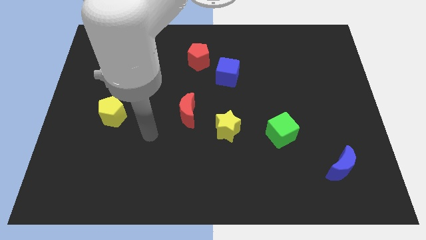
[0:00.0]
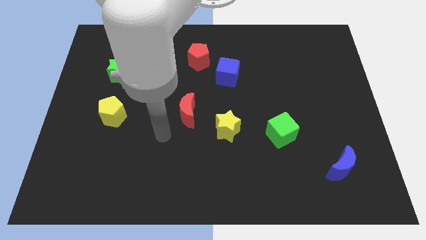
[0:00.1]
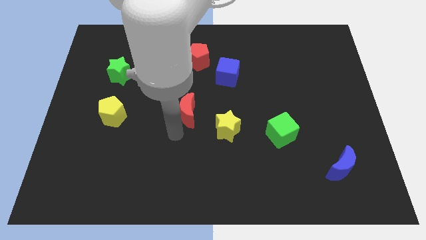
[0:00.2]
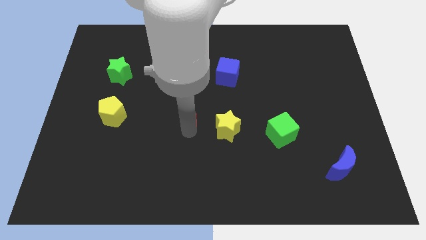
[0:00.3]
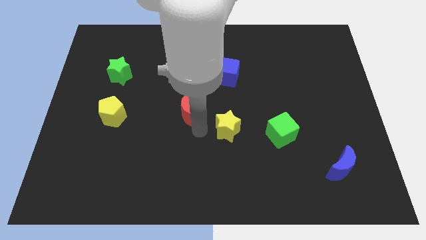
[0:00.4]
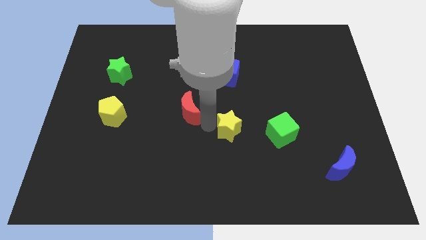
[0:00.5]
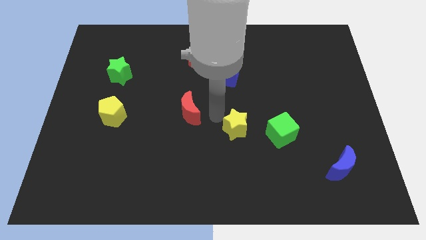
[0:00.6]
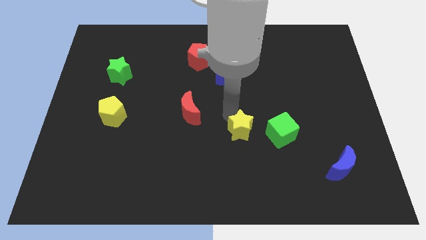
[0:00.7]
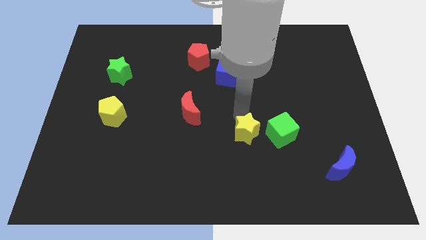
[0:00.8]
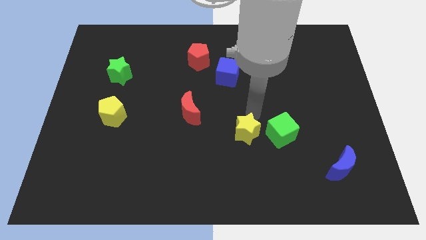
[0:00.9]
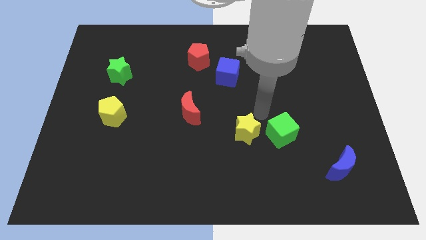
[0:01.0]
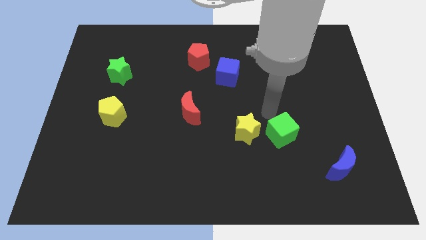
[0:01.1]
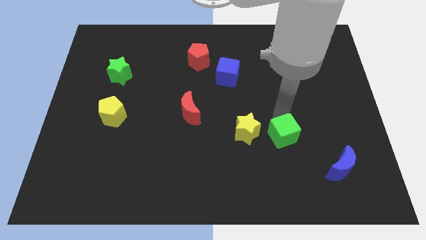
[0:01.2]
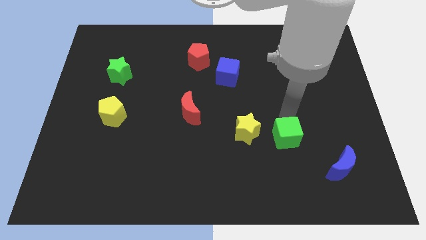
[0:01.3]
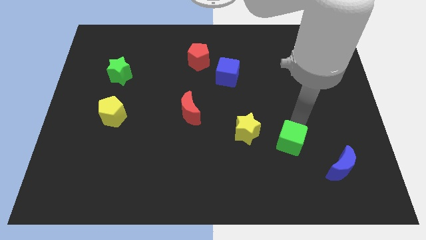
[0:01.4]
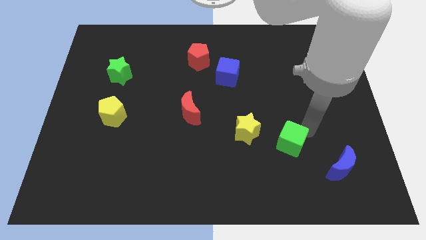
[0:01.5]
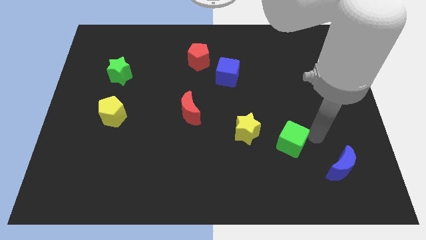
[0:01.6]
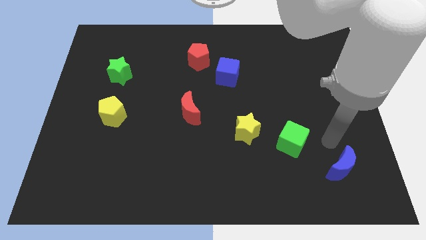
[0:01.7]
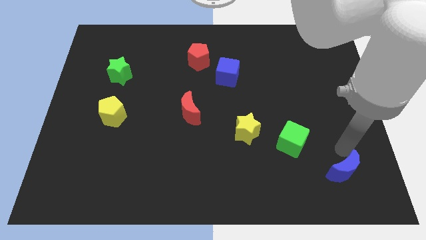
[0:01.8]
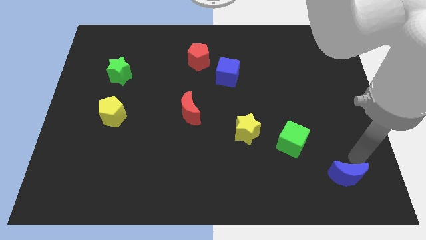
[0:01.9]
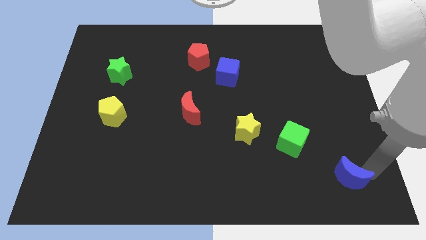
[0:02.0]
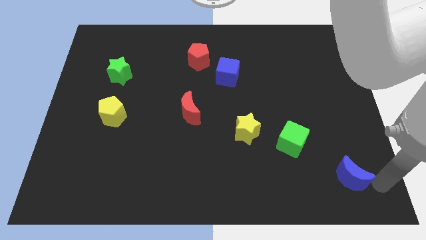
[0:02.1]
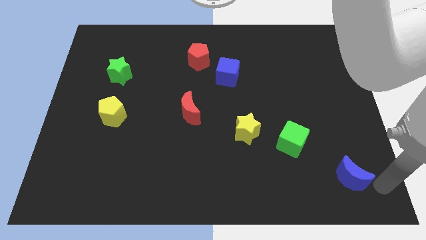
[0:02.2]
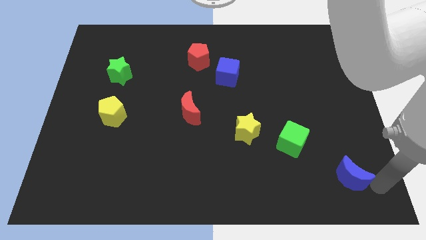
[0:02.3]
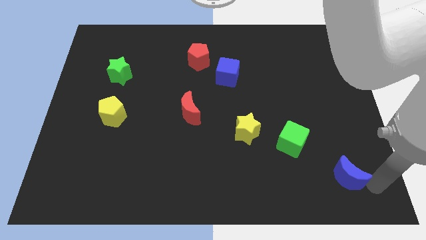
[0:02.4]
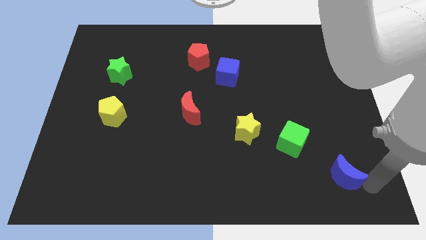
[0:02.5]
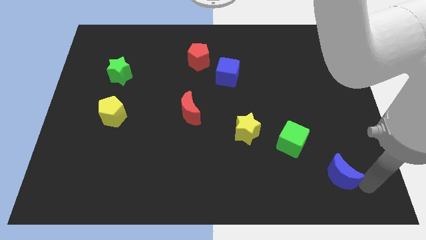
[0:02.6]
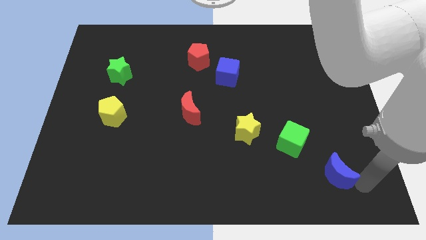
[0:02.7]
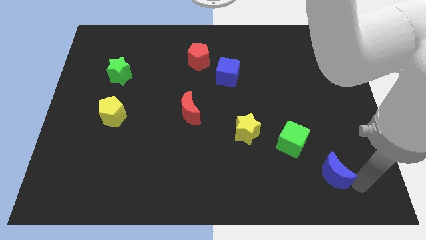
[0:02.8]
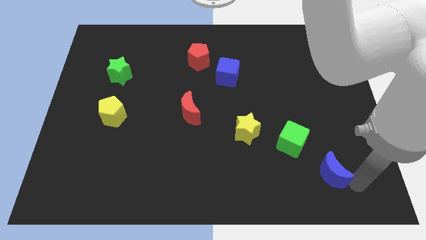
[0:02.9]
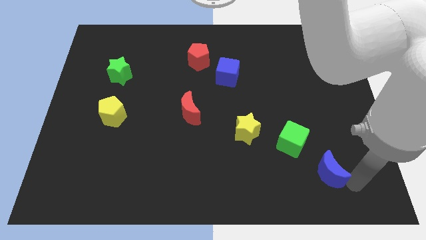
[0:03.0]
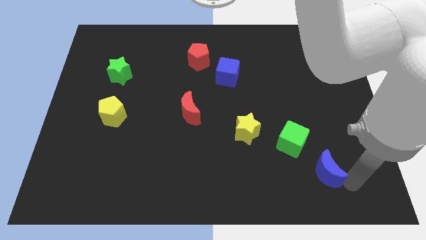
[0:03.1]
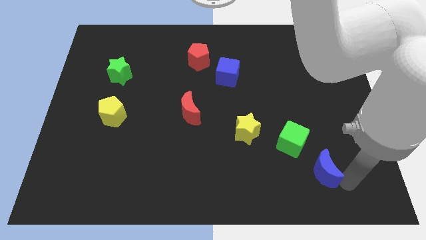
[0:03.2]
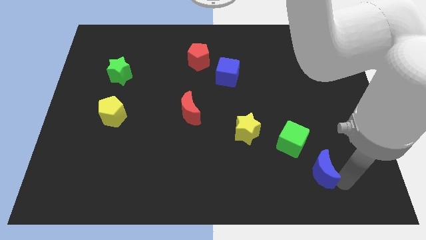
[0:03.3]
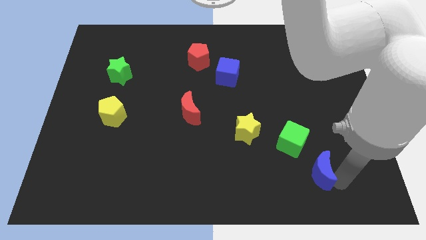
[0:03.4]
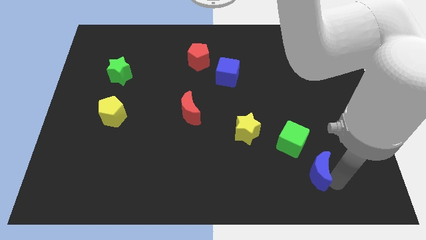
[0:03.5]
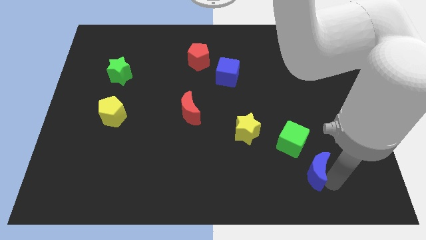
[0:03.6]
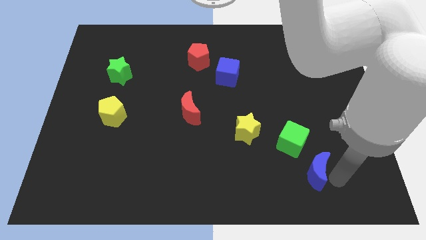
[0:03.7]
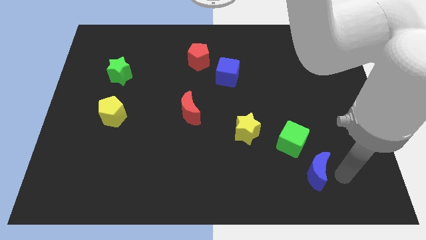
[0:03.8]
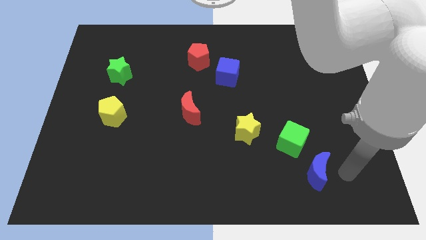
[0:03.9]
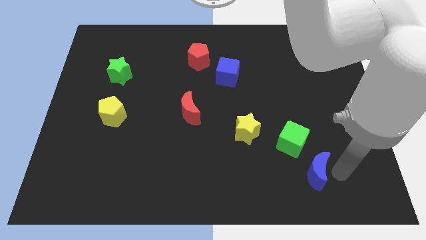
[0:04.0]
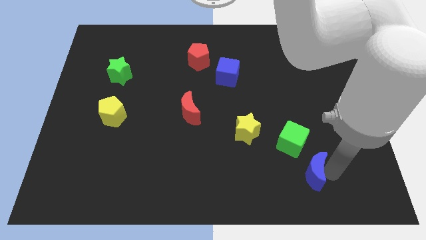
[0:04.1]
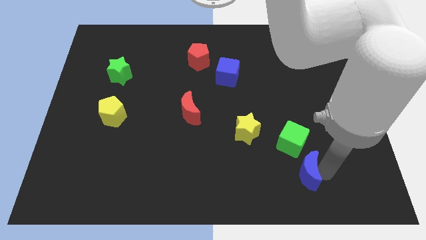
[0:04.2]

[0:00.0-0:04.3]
slide the blue moon left slightly

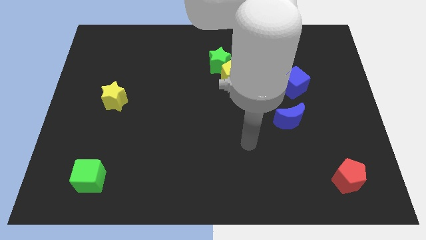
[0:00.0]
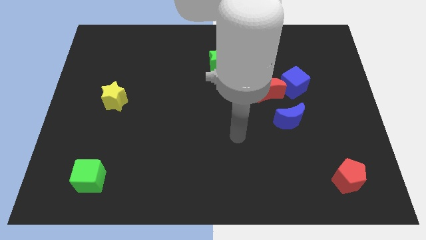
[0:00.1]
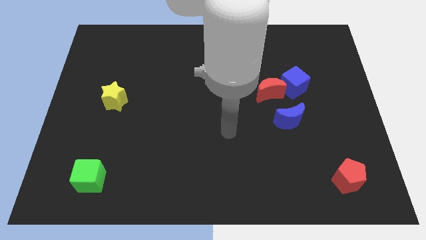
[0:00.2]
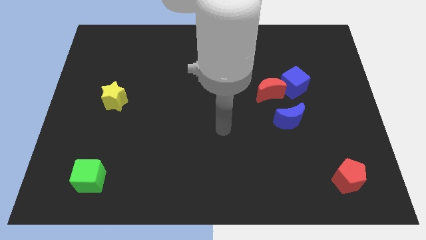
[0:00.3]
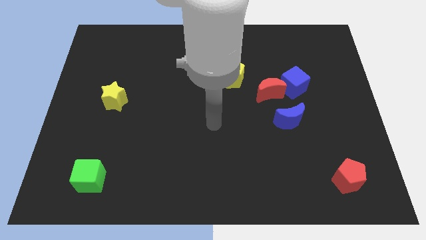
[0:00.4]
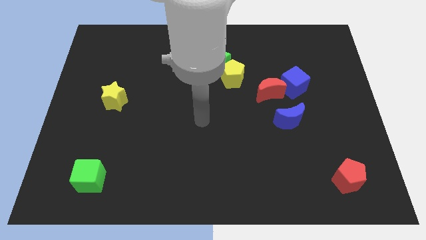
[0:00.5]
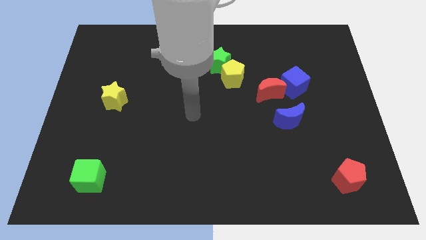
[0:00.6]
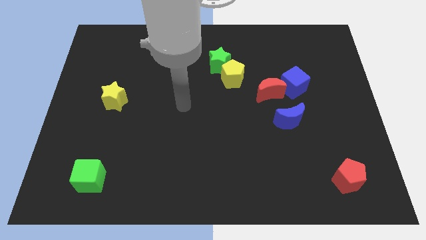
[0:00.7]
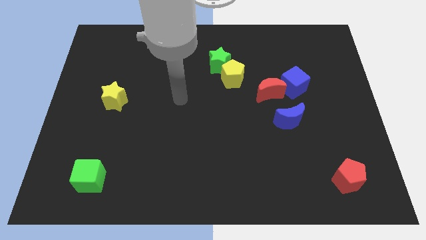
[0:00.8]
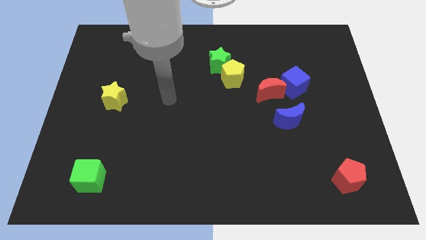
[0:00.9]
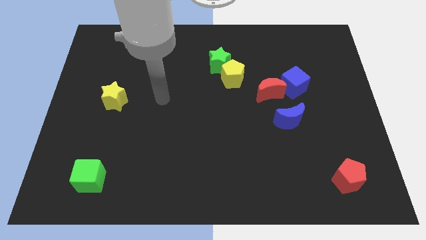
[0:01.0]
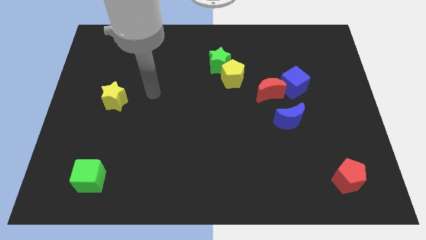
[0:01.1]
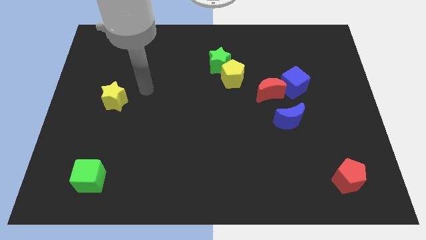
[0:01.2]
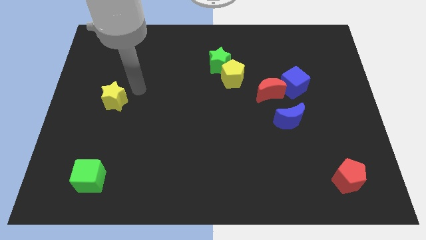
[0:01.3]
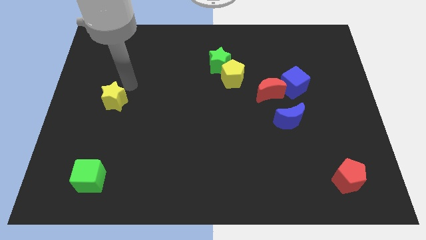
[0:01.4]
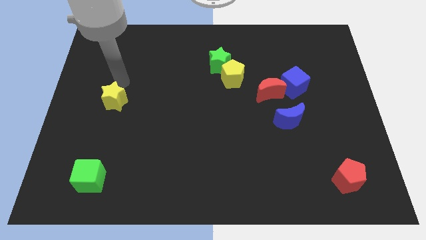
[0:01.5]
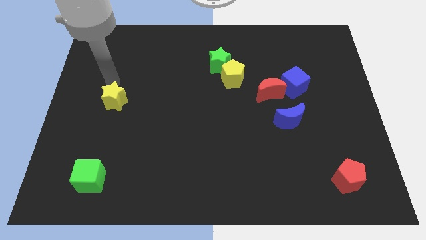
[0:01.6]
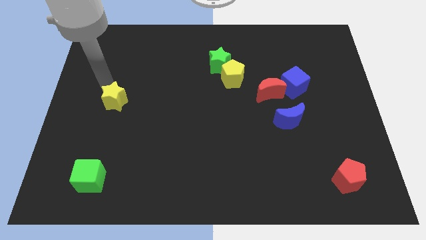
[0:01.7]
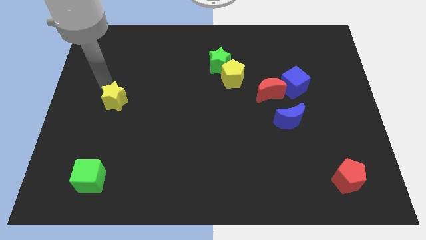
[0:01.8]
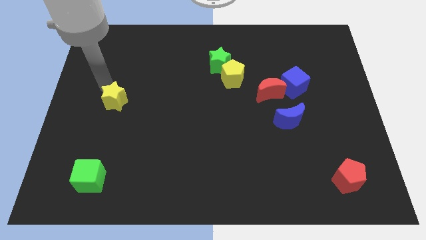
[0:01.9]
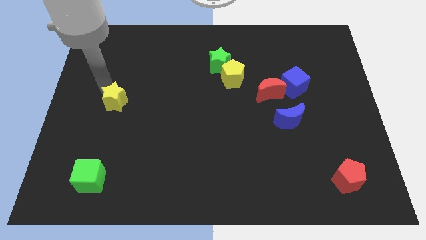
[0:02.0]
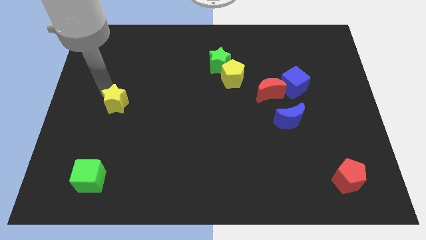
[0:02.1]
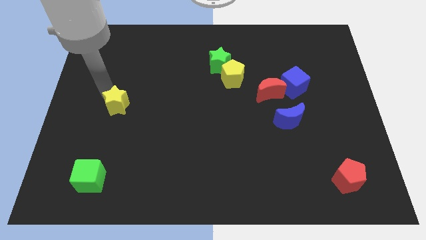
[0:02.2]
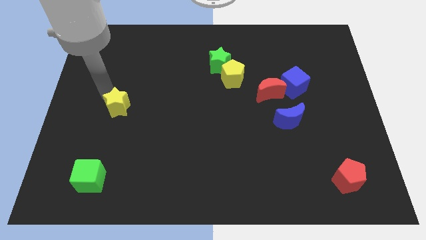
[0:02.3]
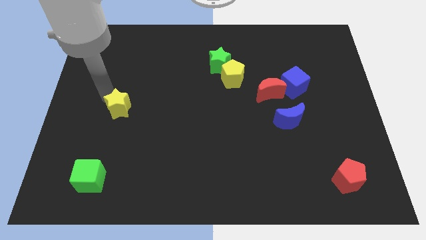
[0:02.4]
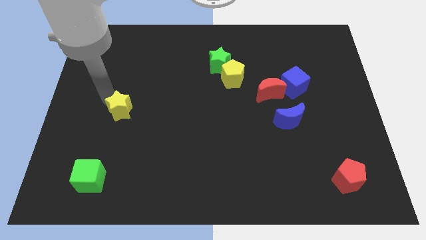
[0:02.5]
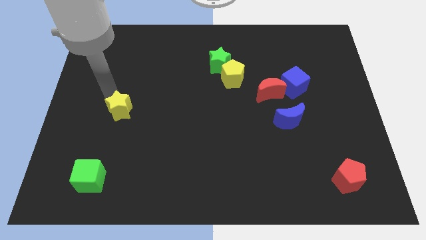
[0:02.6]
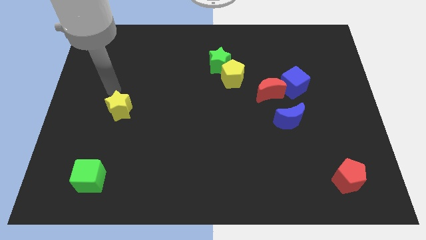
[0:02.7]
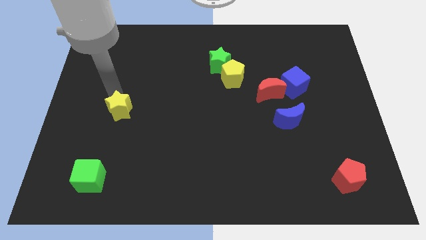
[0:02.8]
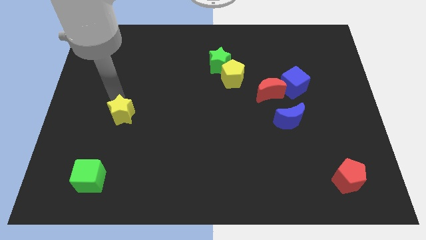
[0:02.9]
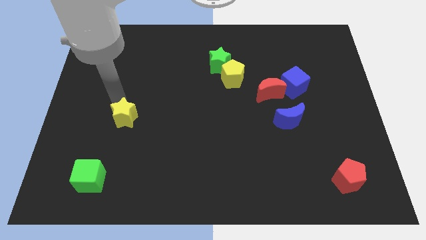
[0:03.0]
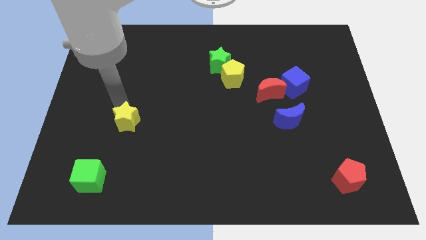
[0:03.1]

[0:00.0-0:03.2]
push the yellow star down and right diagonally a little bit

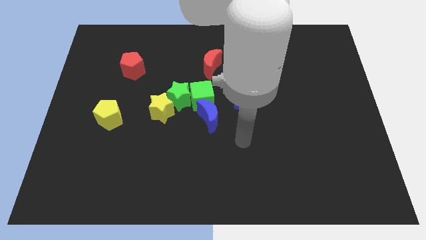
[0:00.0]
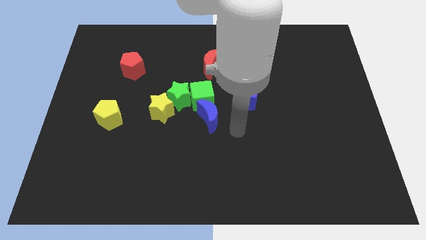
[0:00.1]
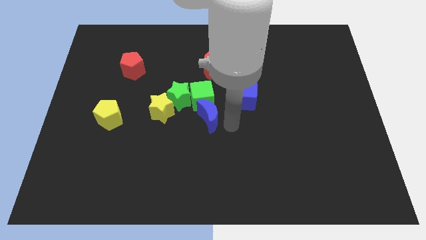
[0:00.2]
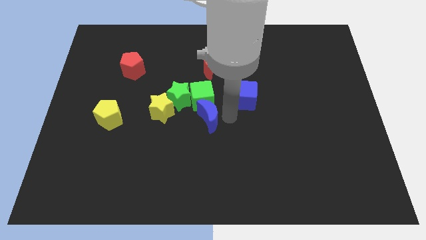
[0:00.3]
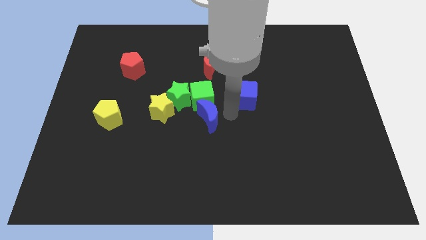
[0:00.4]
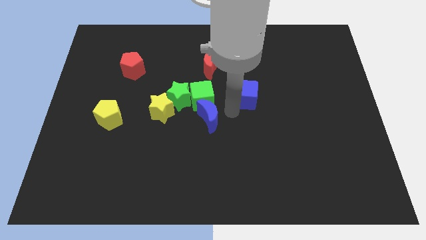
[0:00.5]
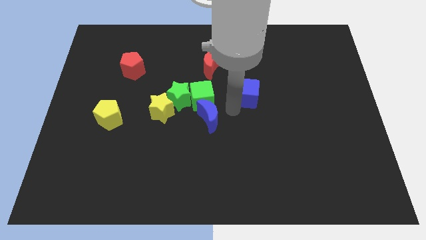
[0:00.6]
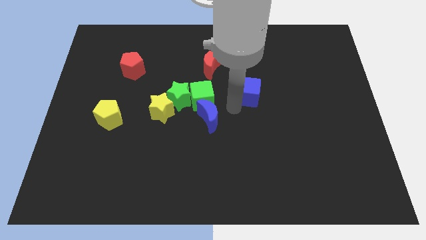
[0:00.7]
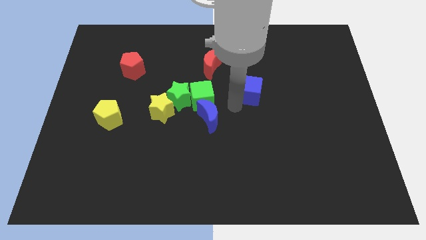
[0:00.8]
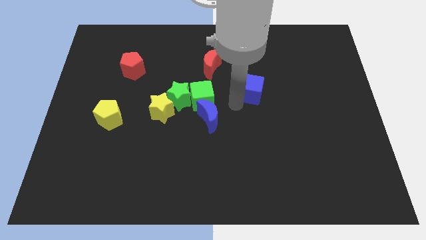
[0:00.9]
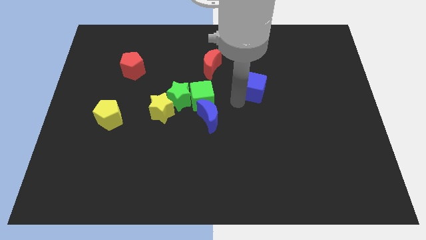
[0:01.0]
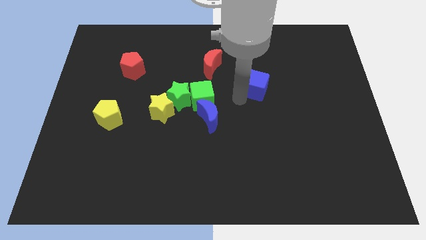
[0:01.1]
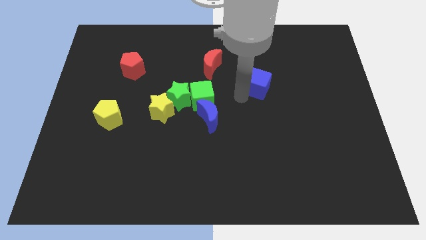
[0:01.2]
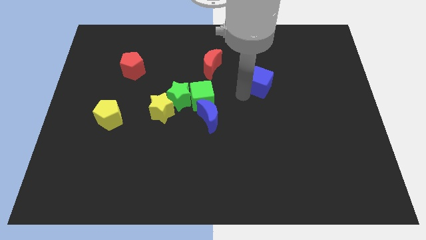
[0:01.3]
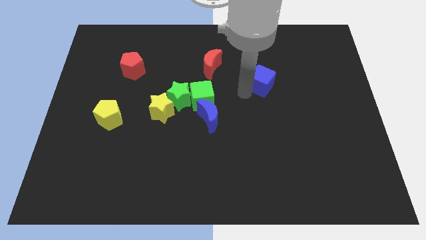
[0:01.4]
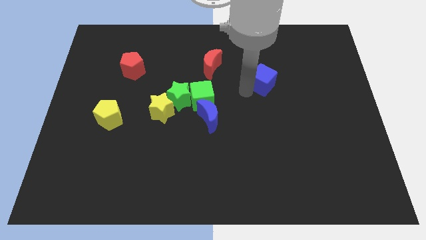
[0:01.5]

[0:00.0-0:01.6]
push the blue cube upwards and then to the right a little
